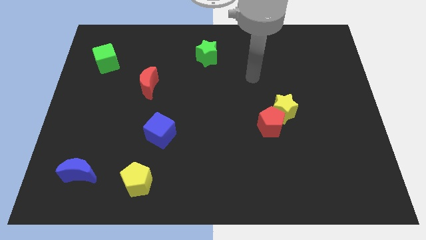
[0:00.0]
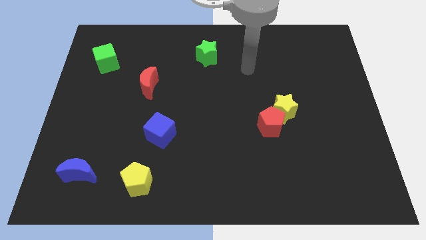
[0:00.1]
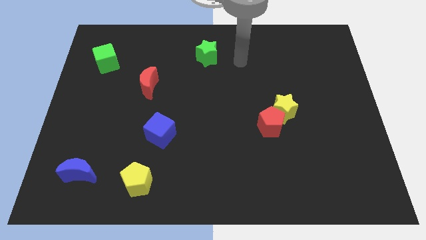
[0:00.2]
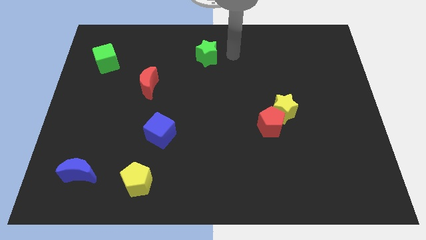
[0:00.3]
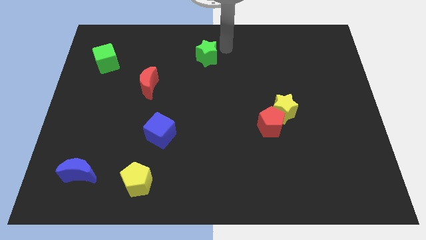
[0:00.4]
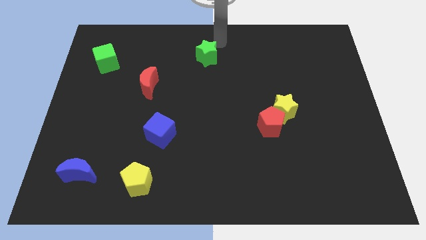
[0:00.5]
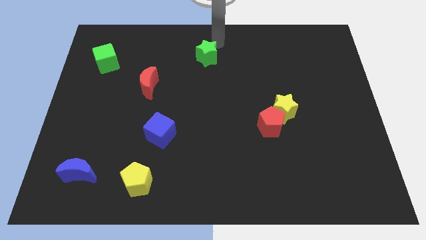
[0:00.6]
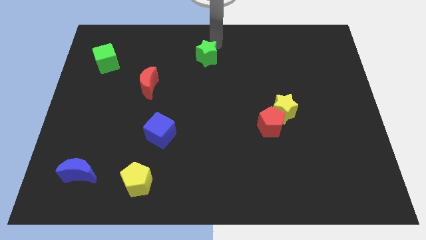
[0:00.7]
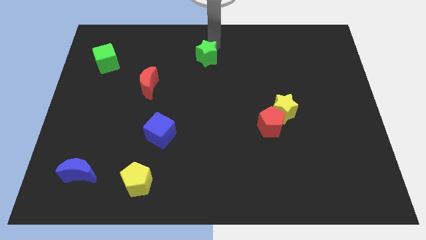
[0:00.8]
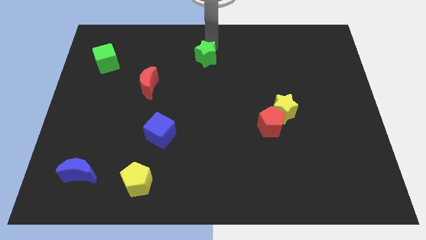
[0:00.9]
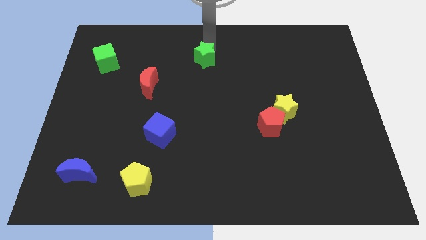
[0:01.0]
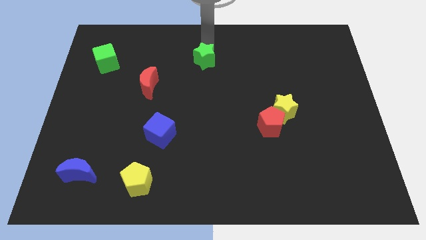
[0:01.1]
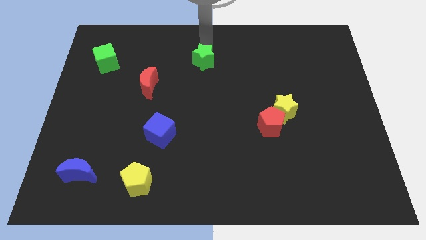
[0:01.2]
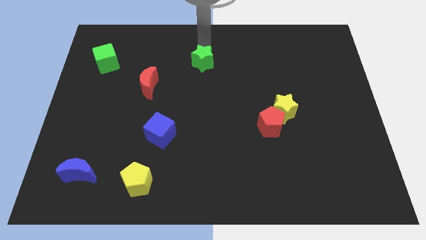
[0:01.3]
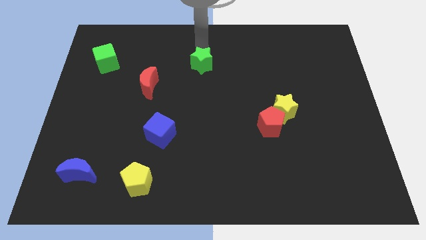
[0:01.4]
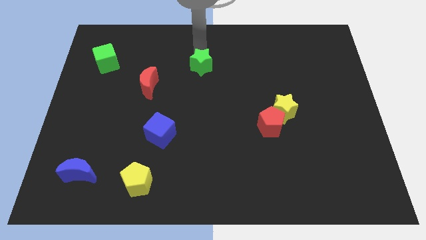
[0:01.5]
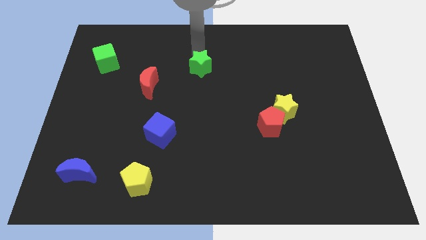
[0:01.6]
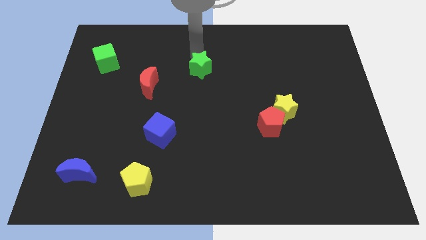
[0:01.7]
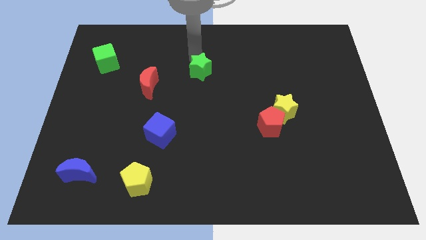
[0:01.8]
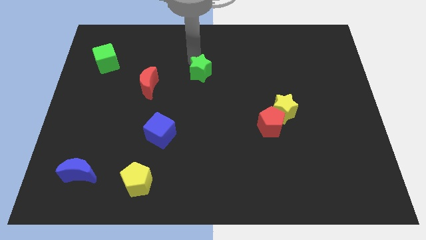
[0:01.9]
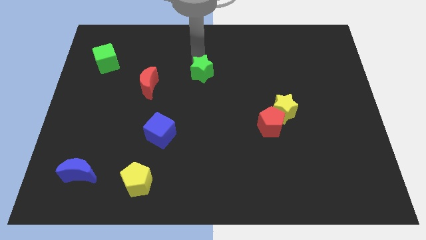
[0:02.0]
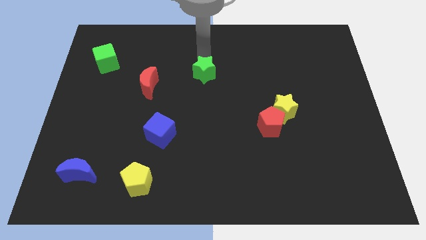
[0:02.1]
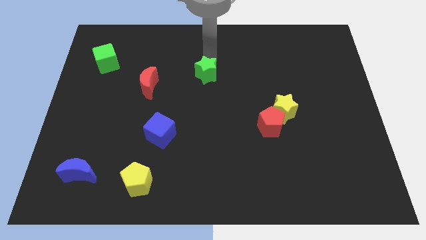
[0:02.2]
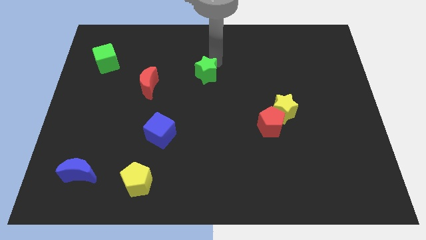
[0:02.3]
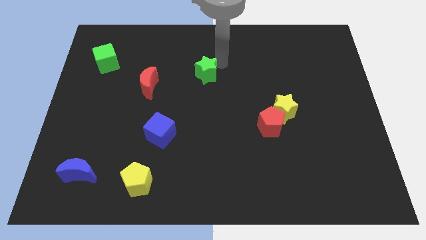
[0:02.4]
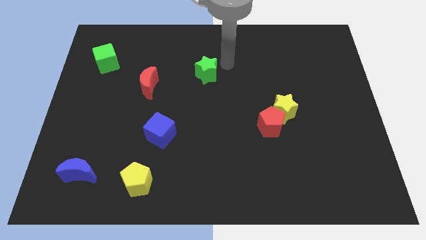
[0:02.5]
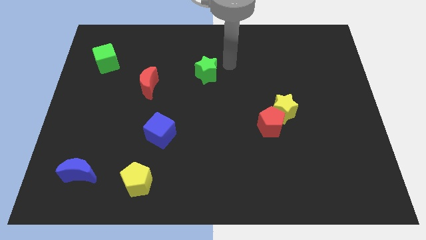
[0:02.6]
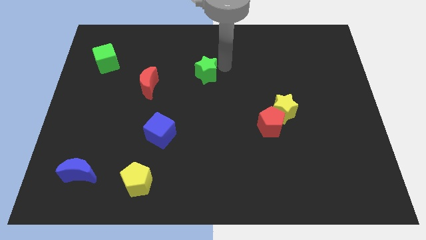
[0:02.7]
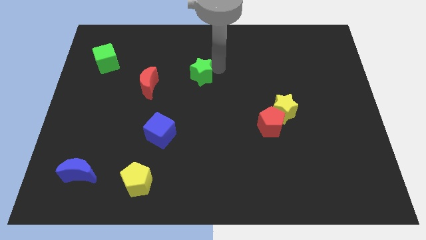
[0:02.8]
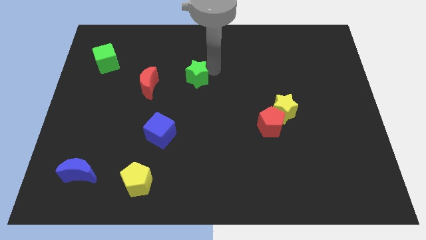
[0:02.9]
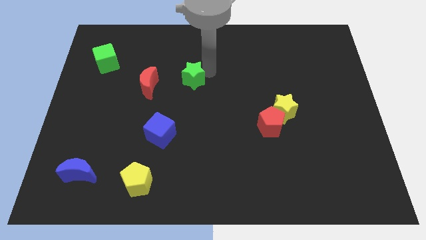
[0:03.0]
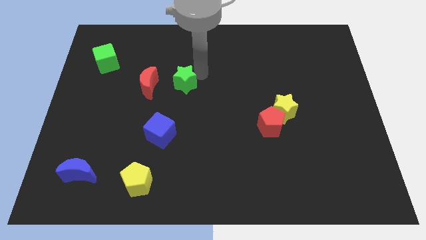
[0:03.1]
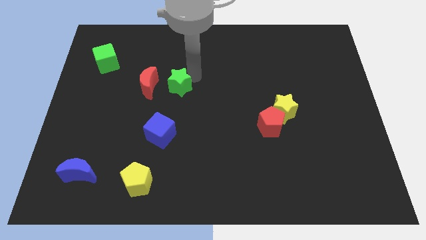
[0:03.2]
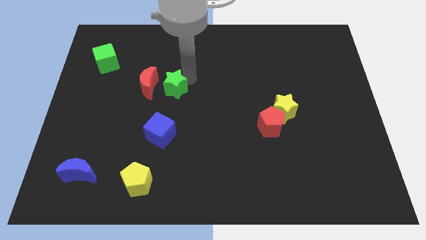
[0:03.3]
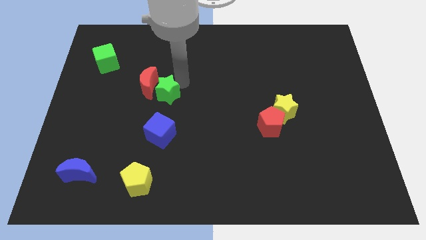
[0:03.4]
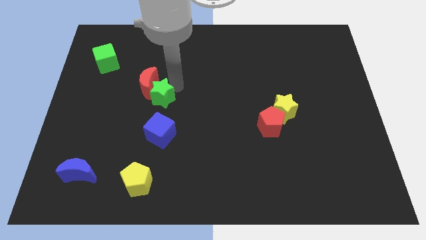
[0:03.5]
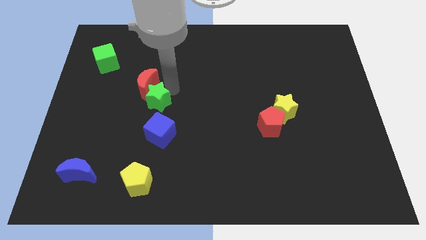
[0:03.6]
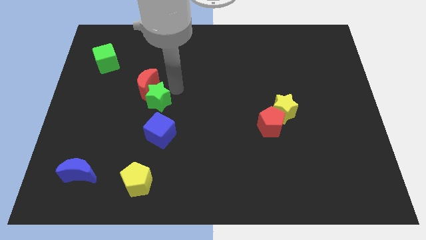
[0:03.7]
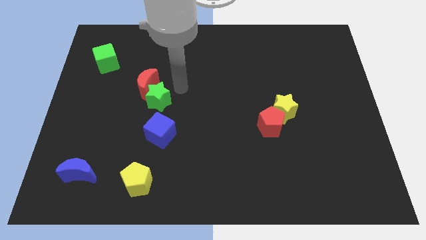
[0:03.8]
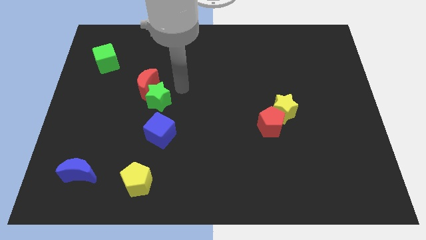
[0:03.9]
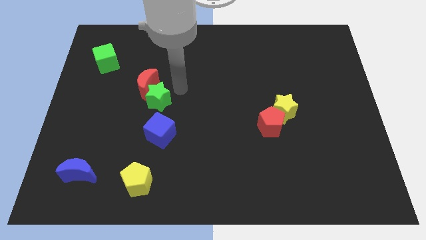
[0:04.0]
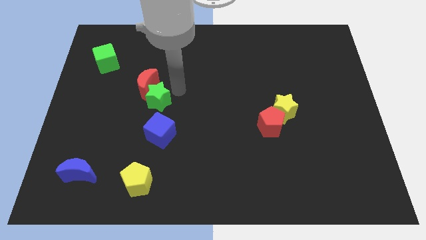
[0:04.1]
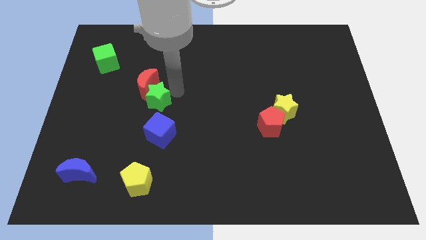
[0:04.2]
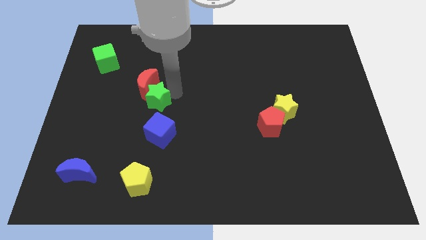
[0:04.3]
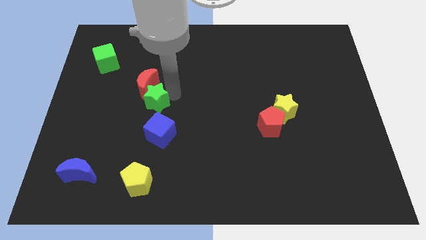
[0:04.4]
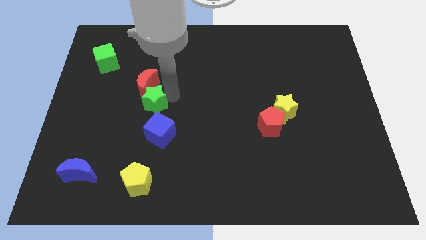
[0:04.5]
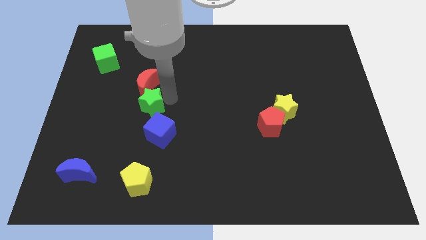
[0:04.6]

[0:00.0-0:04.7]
slide the green star diagonally downwards and left

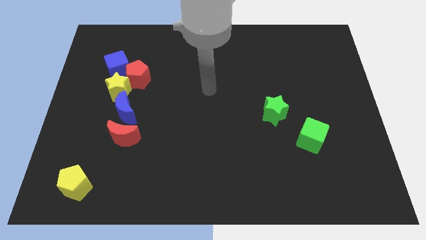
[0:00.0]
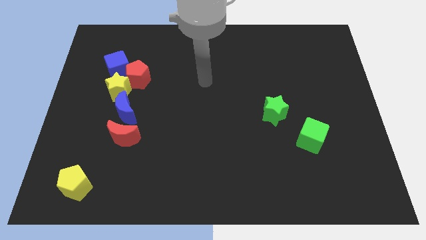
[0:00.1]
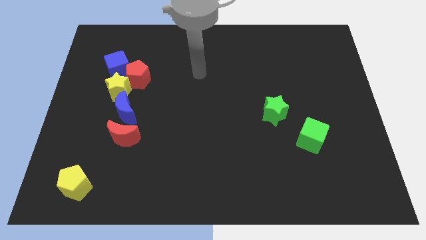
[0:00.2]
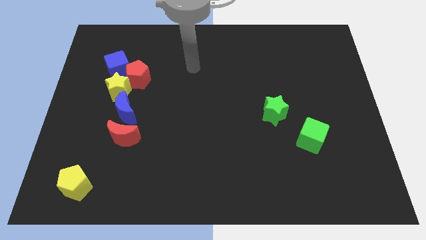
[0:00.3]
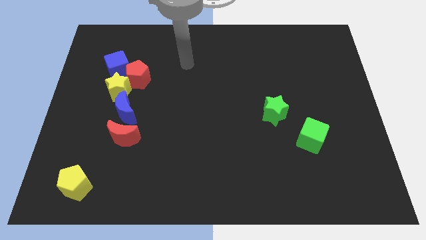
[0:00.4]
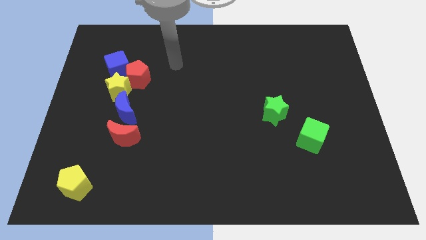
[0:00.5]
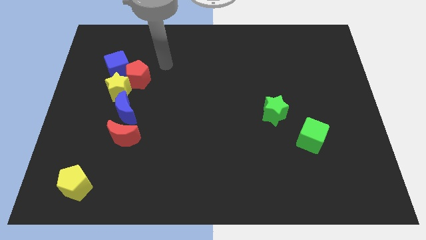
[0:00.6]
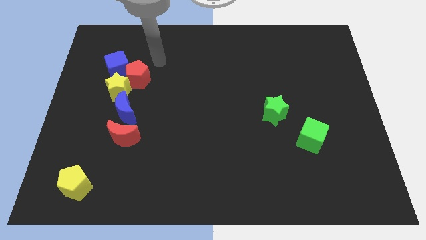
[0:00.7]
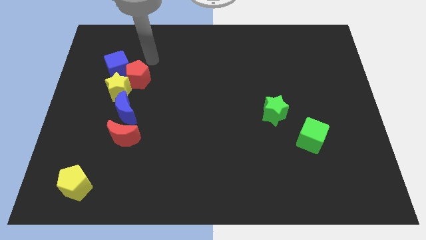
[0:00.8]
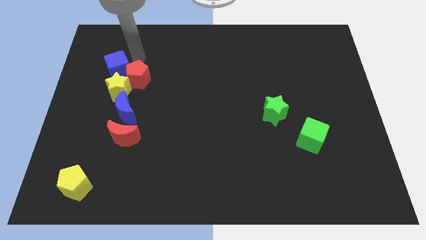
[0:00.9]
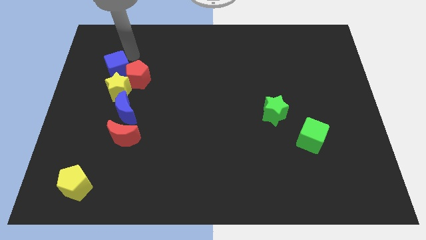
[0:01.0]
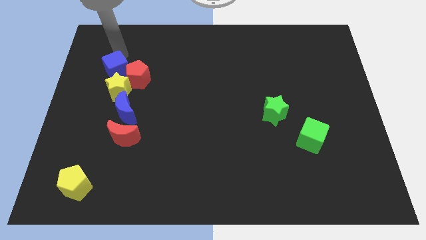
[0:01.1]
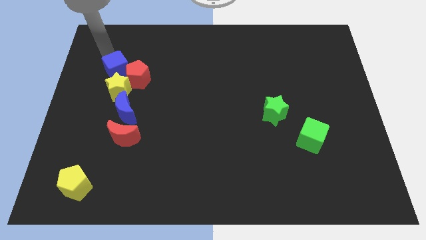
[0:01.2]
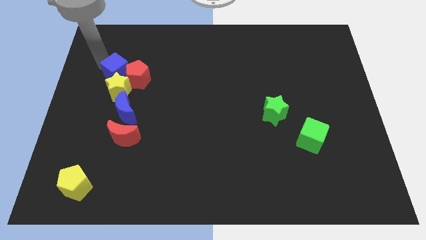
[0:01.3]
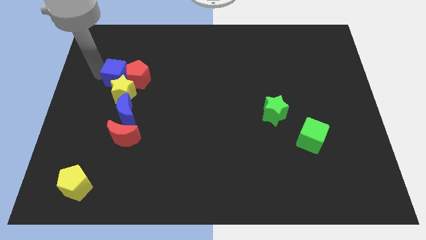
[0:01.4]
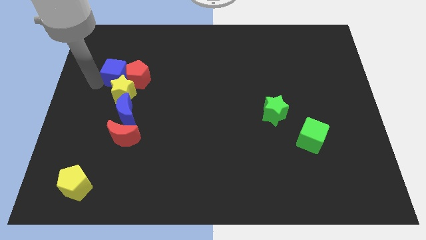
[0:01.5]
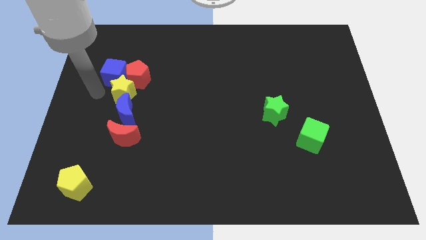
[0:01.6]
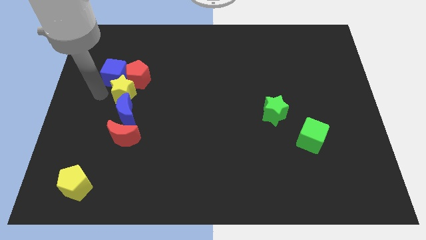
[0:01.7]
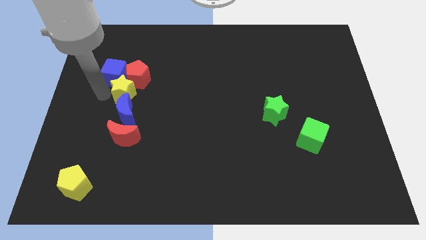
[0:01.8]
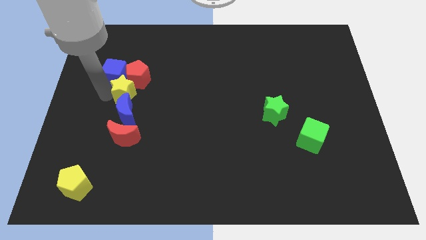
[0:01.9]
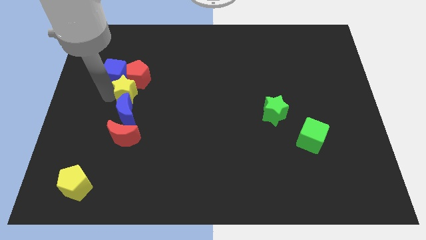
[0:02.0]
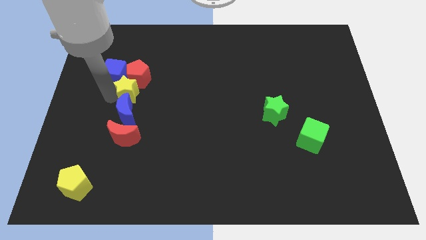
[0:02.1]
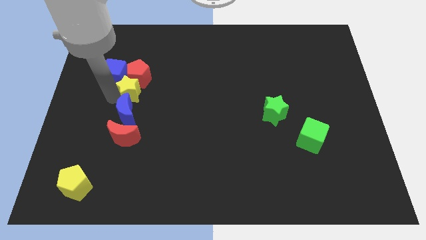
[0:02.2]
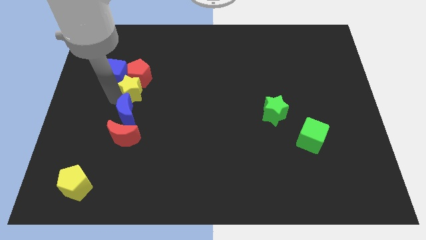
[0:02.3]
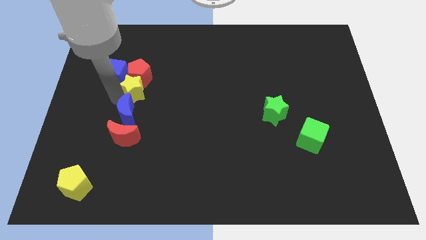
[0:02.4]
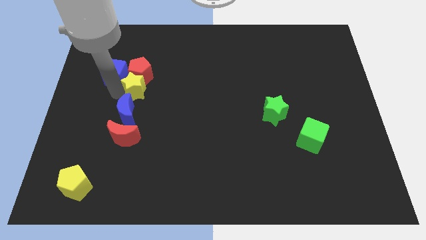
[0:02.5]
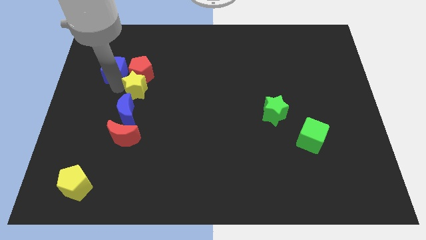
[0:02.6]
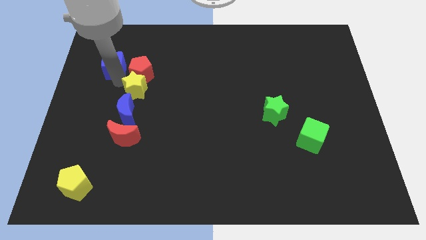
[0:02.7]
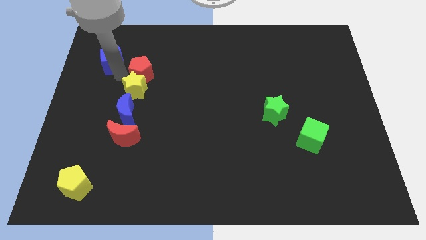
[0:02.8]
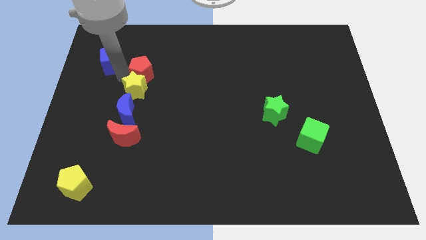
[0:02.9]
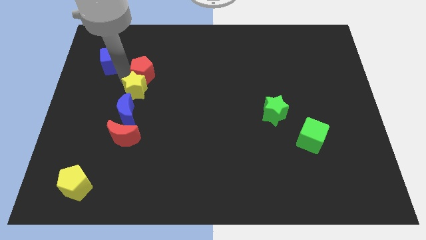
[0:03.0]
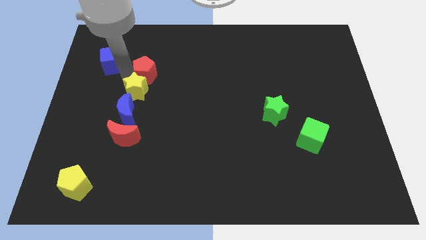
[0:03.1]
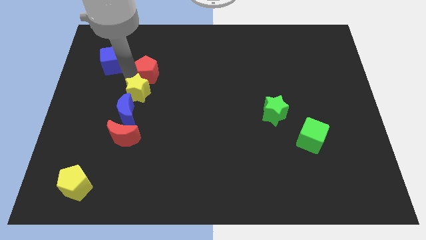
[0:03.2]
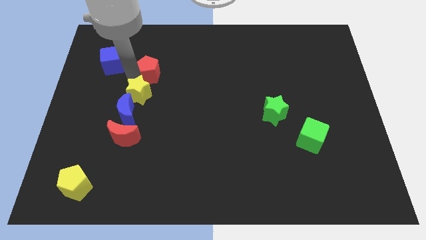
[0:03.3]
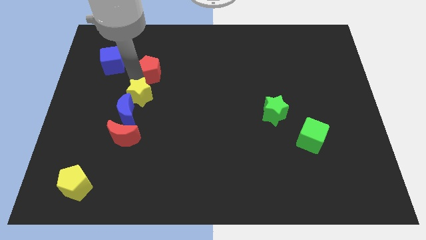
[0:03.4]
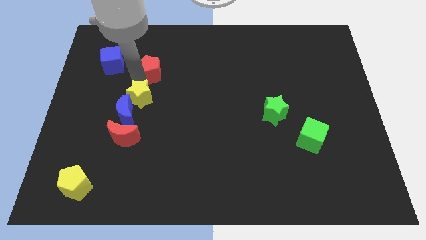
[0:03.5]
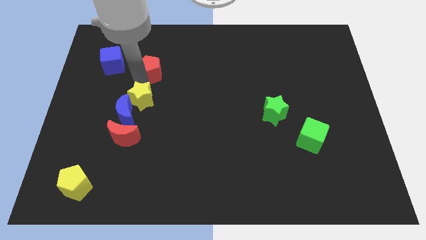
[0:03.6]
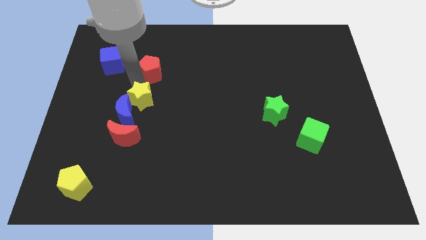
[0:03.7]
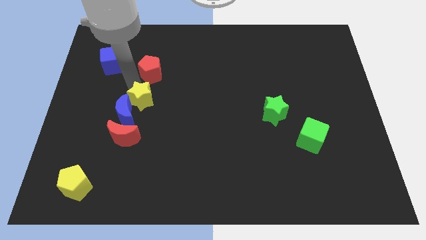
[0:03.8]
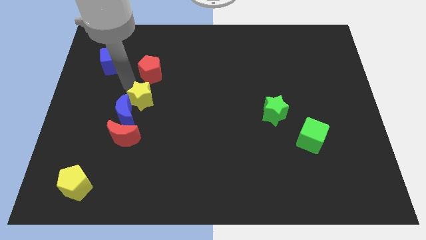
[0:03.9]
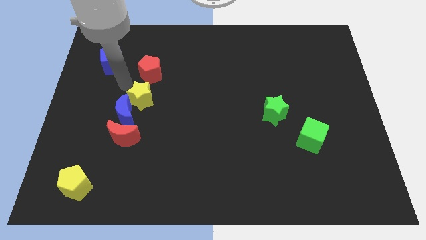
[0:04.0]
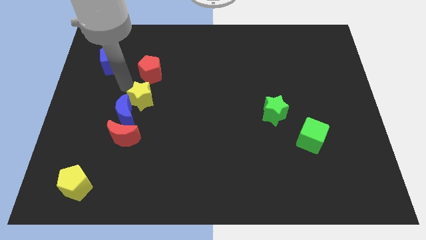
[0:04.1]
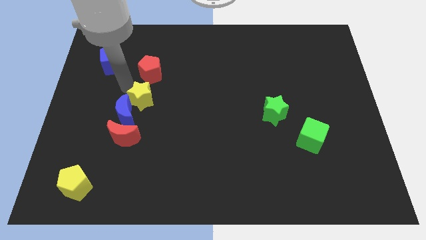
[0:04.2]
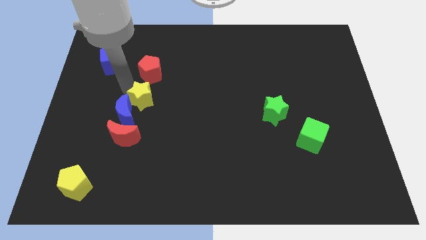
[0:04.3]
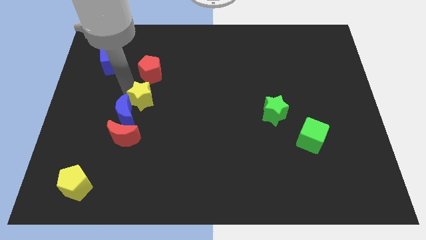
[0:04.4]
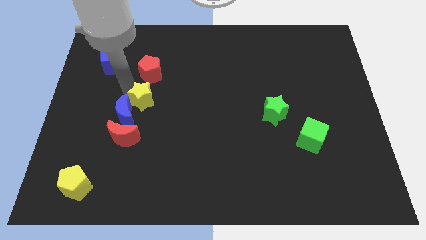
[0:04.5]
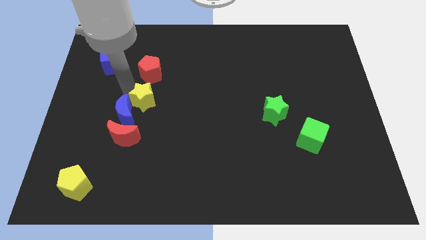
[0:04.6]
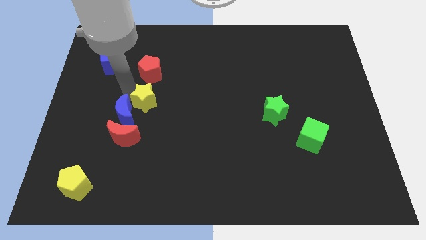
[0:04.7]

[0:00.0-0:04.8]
slide the yellow star somewhat down and right
